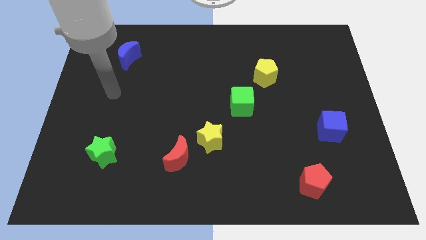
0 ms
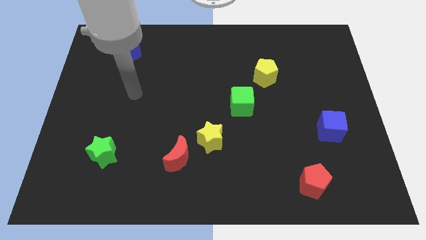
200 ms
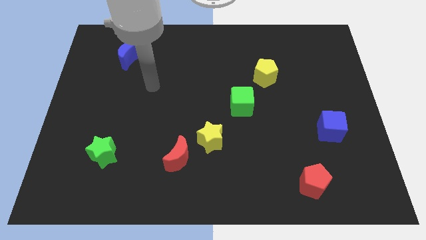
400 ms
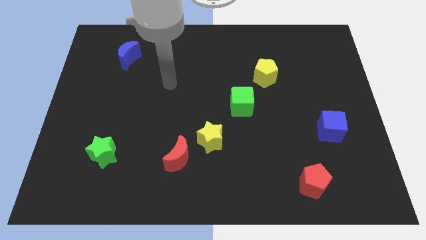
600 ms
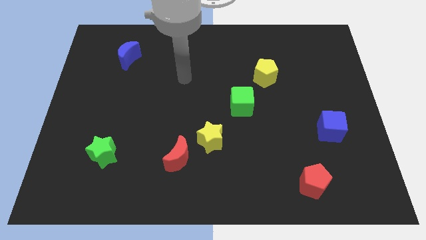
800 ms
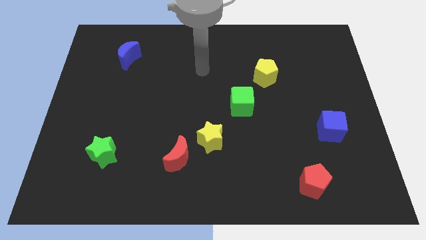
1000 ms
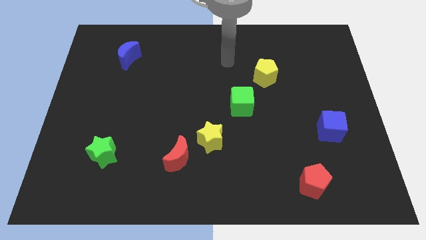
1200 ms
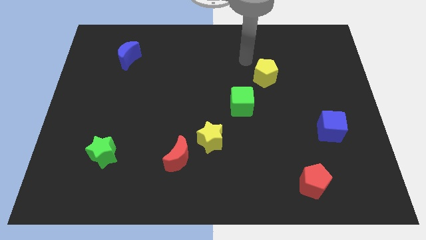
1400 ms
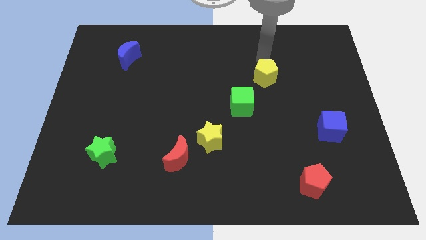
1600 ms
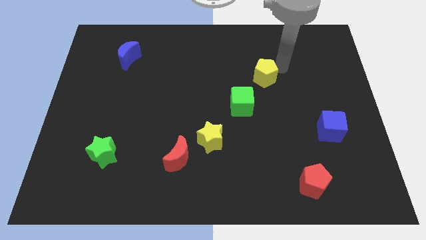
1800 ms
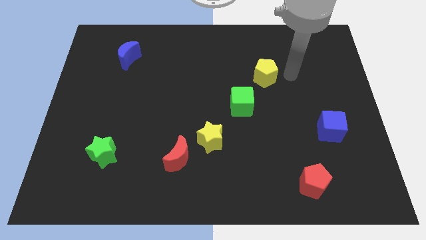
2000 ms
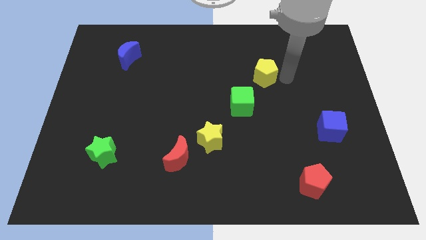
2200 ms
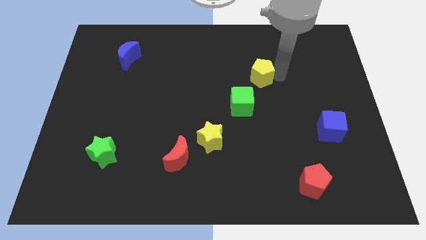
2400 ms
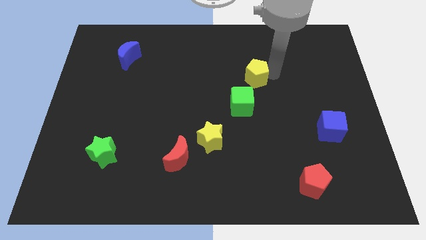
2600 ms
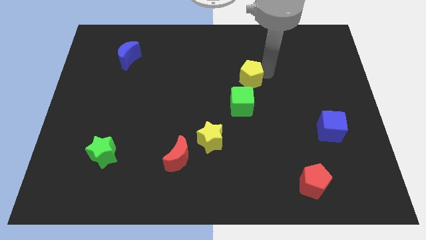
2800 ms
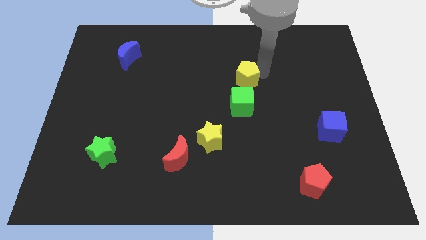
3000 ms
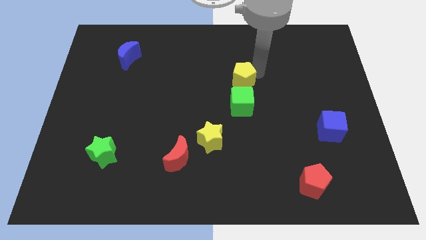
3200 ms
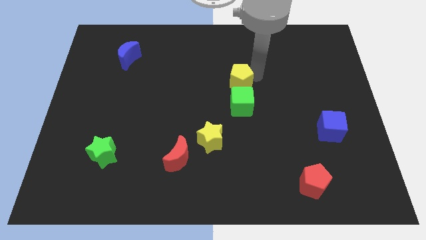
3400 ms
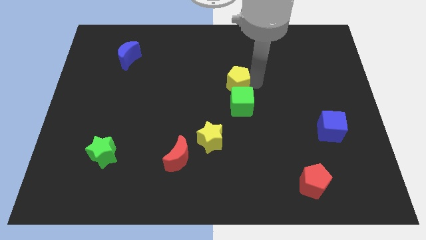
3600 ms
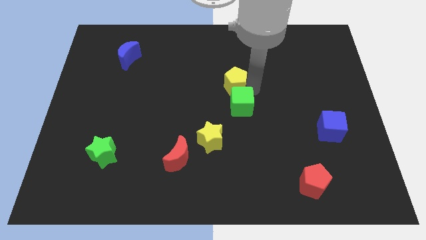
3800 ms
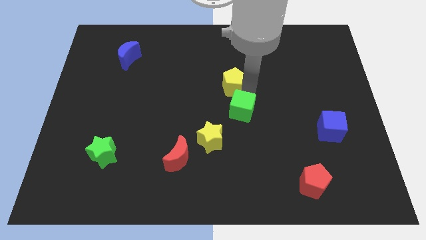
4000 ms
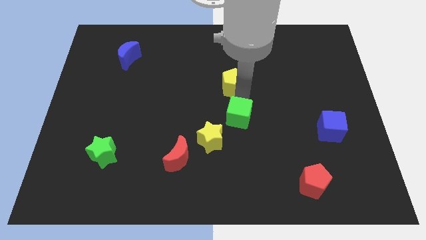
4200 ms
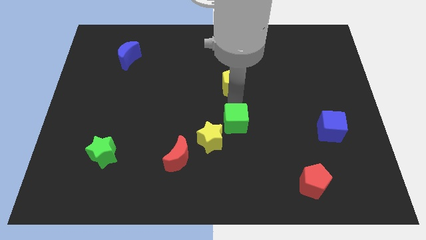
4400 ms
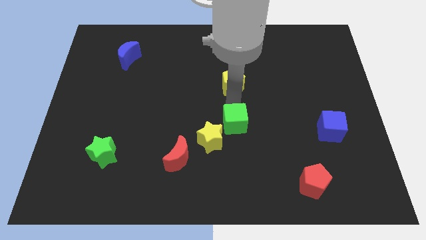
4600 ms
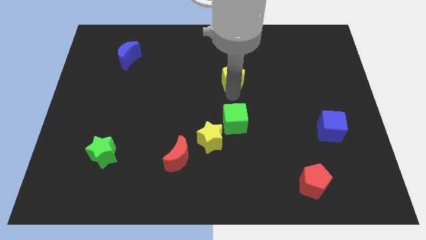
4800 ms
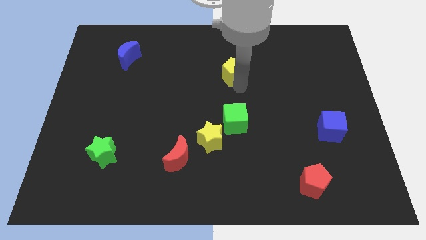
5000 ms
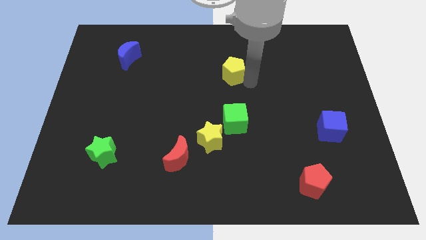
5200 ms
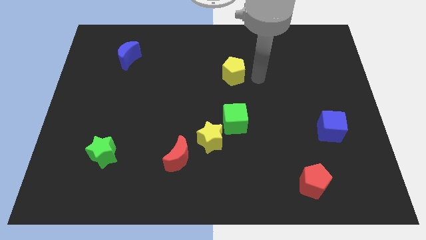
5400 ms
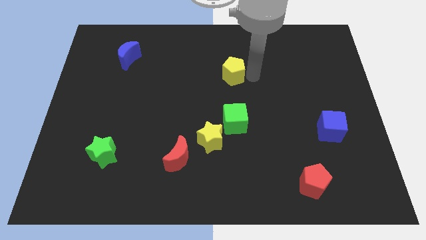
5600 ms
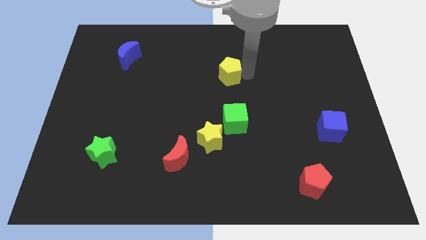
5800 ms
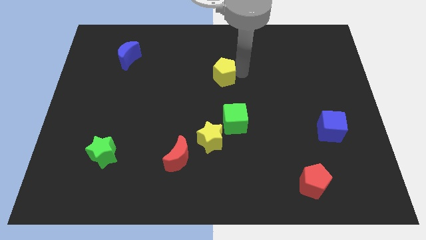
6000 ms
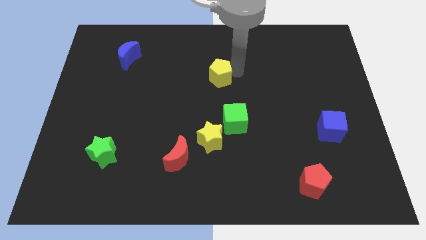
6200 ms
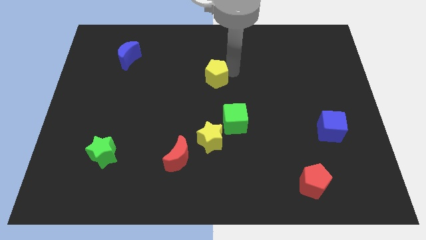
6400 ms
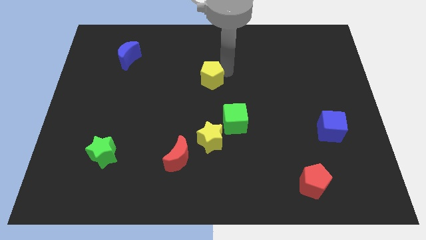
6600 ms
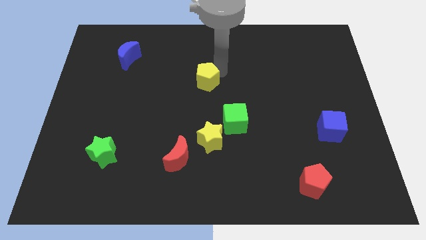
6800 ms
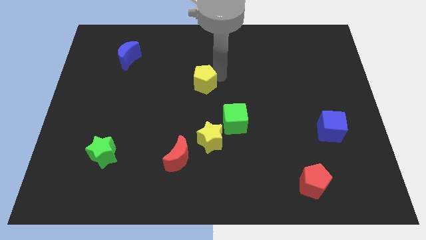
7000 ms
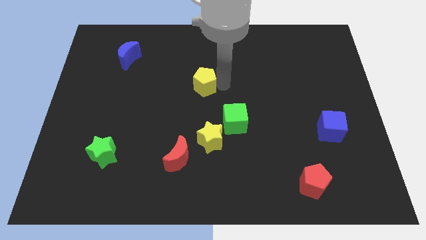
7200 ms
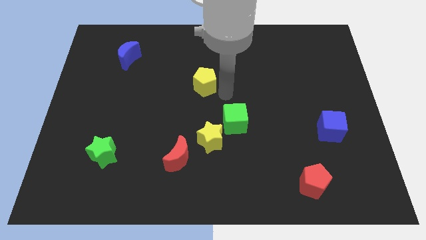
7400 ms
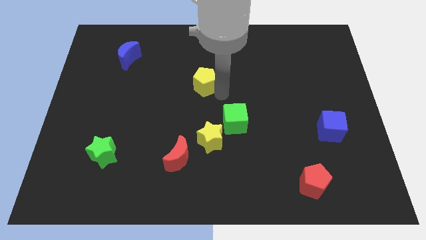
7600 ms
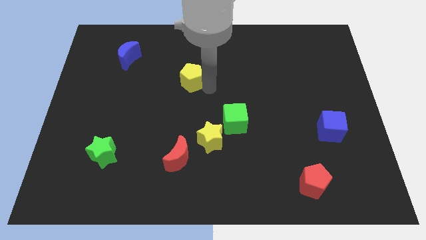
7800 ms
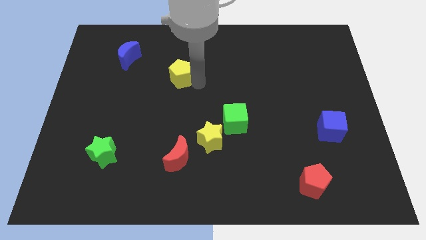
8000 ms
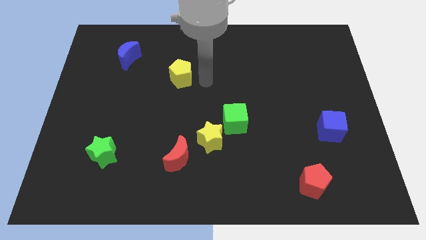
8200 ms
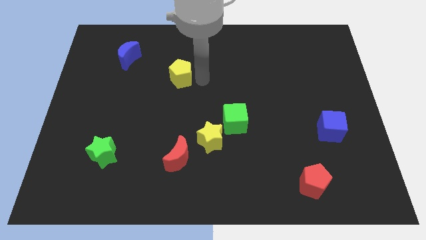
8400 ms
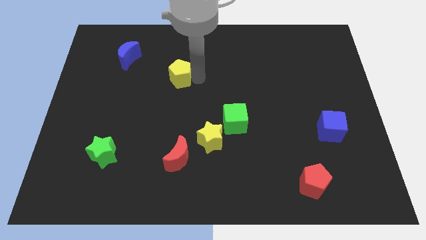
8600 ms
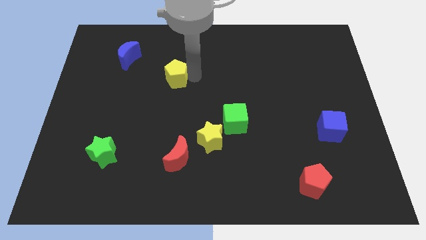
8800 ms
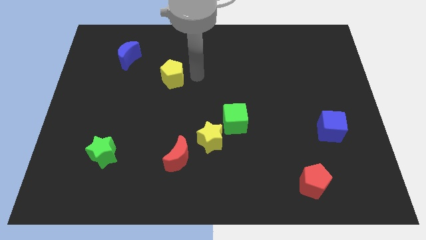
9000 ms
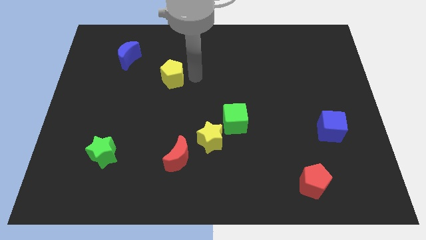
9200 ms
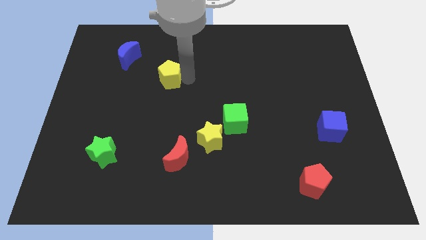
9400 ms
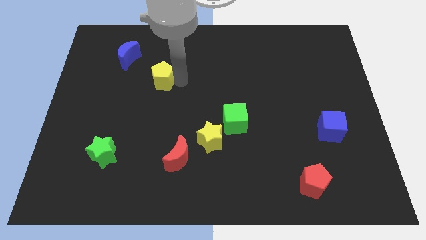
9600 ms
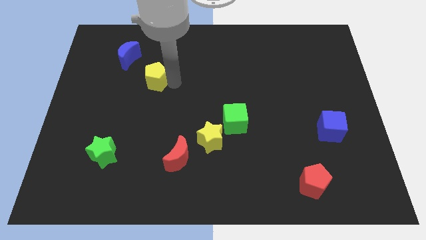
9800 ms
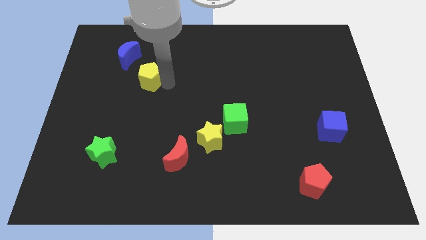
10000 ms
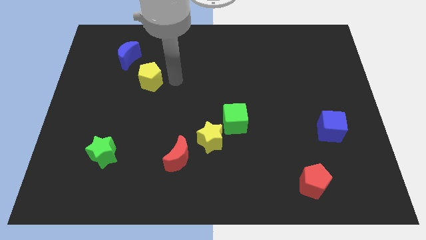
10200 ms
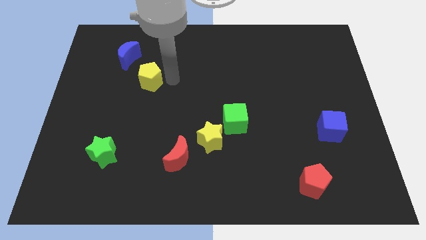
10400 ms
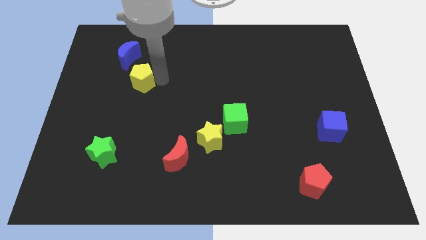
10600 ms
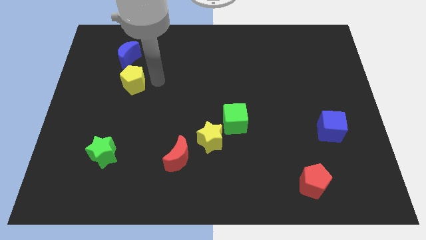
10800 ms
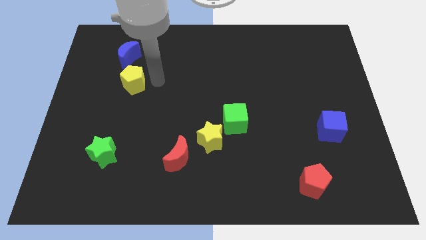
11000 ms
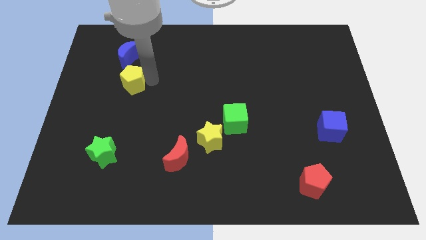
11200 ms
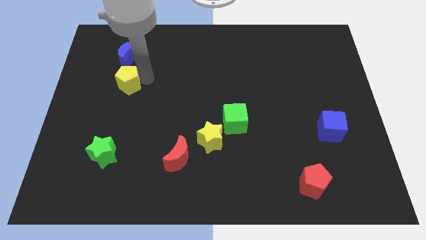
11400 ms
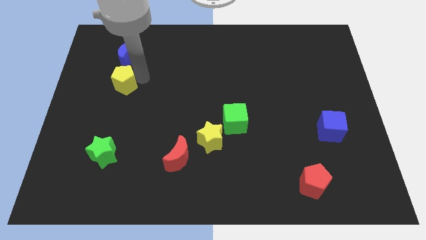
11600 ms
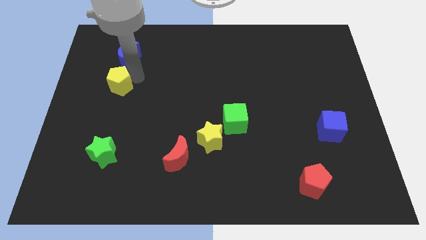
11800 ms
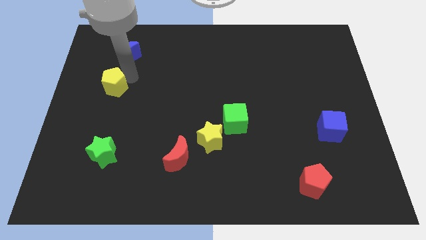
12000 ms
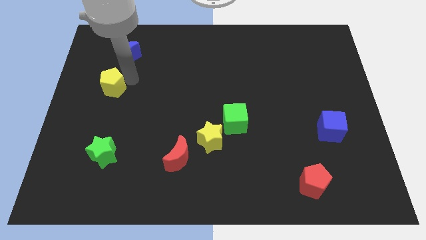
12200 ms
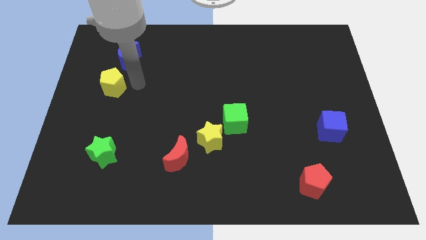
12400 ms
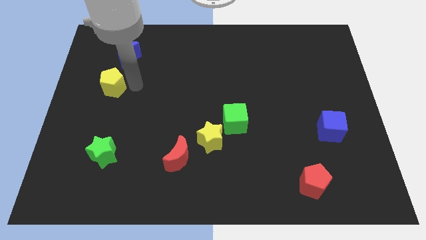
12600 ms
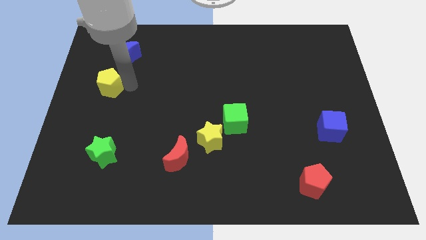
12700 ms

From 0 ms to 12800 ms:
push the yellow pentagon to the left side

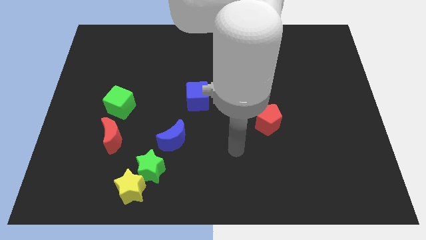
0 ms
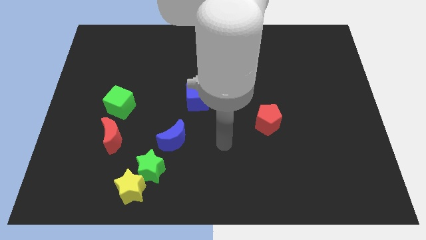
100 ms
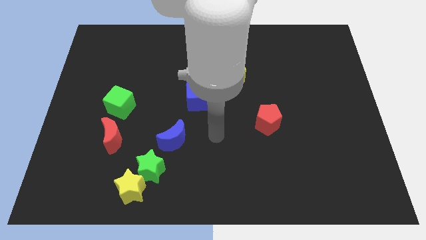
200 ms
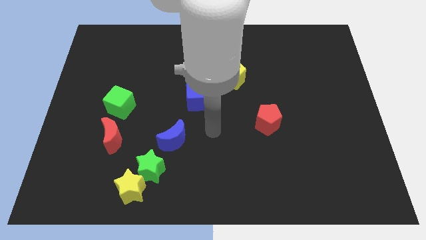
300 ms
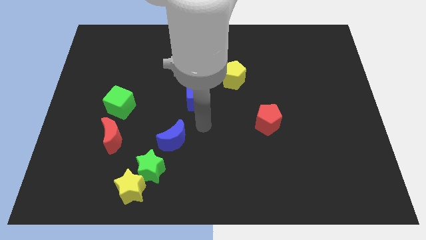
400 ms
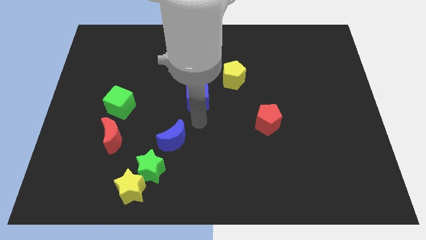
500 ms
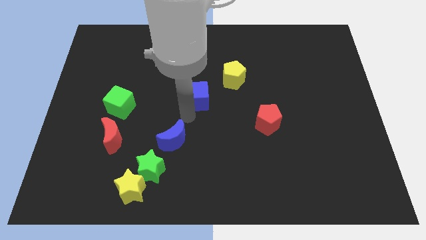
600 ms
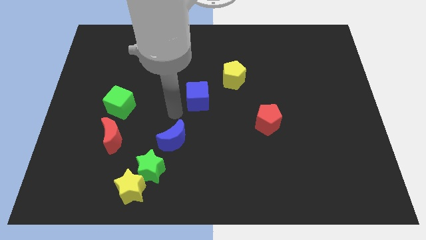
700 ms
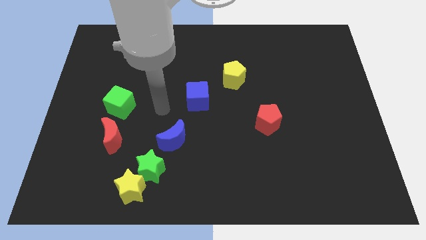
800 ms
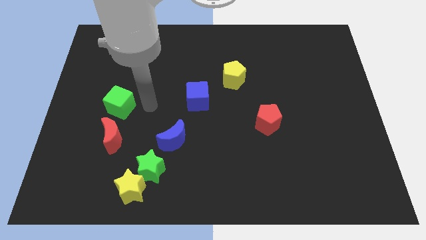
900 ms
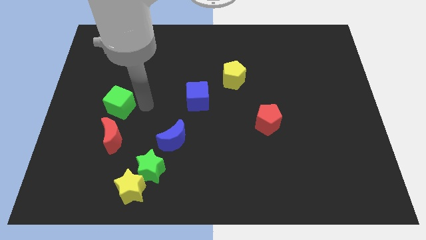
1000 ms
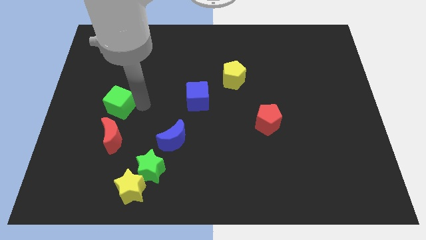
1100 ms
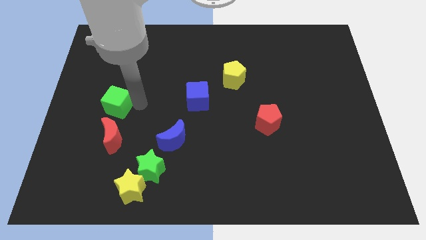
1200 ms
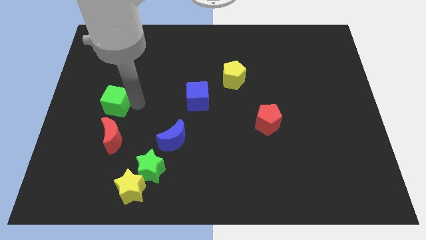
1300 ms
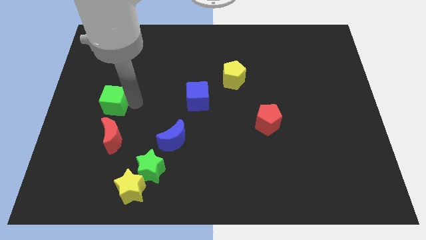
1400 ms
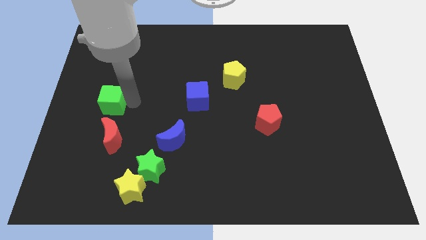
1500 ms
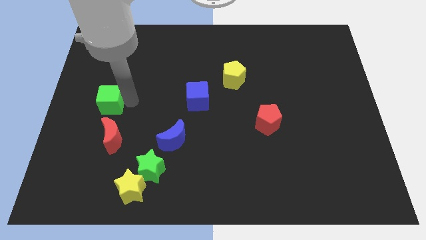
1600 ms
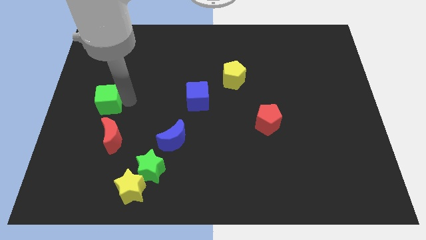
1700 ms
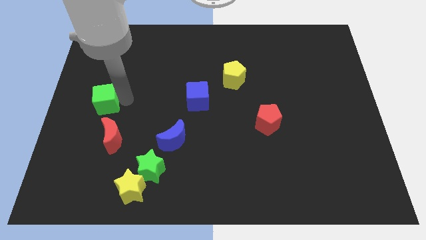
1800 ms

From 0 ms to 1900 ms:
move the green cube to the left side
